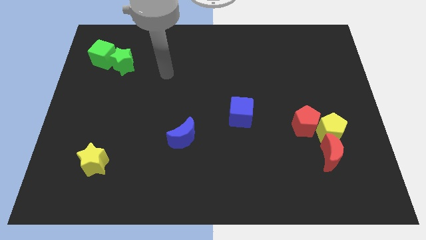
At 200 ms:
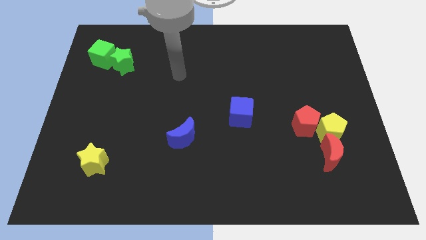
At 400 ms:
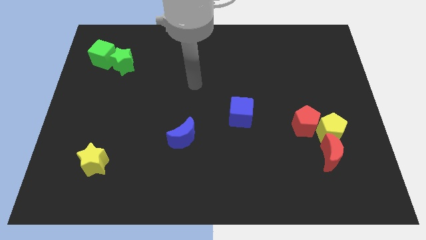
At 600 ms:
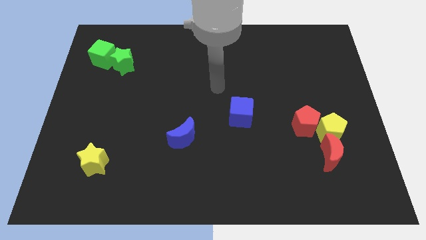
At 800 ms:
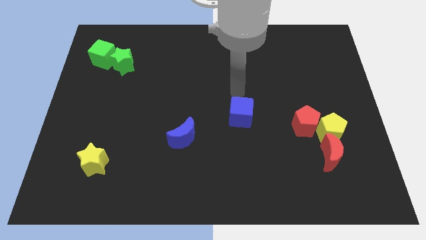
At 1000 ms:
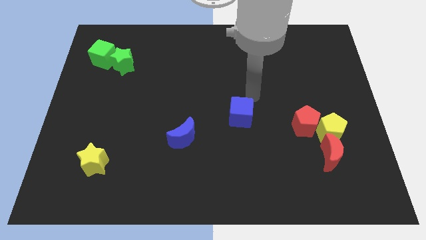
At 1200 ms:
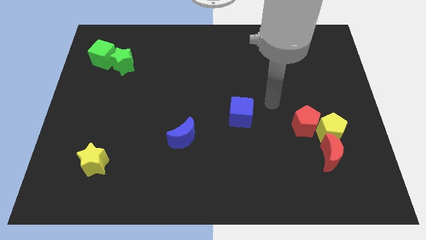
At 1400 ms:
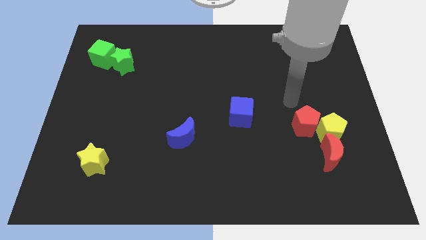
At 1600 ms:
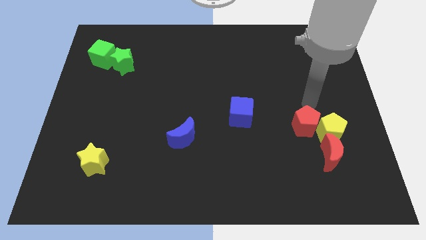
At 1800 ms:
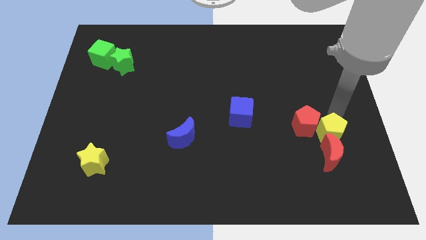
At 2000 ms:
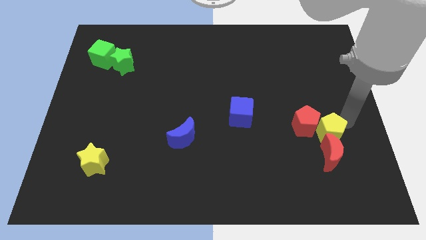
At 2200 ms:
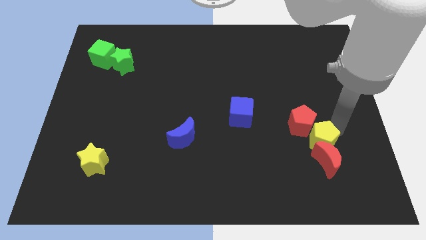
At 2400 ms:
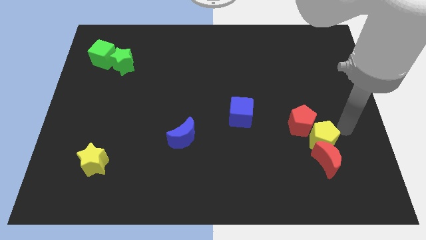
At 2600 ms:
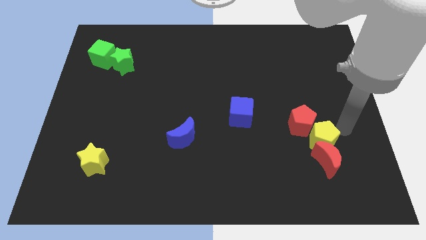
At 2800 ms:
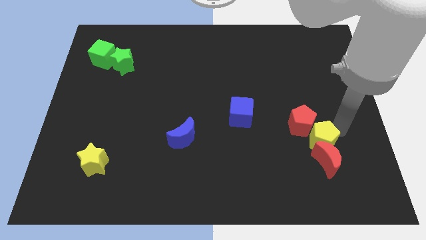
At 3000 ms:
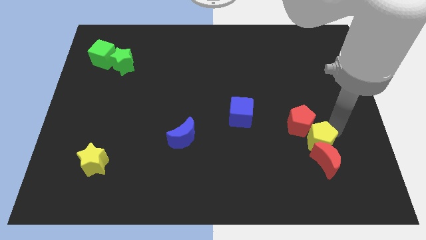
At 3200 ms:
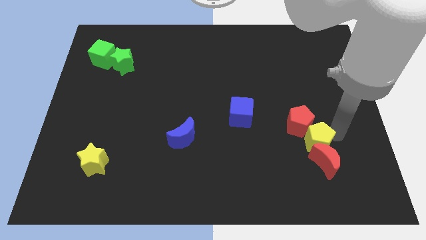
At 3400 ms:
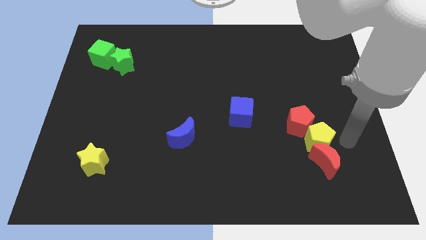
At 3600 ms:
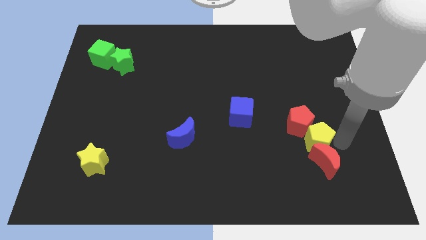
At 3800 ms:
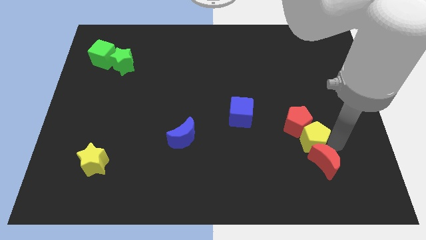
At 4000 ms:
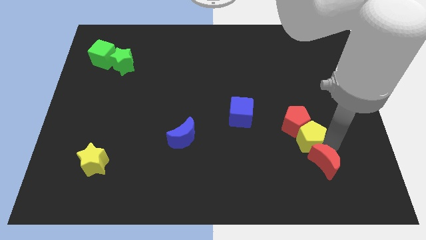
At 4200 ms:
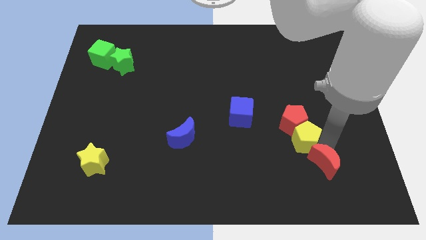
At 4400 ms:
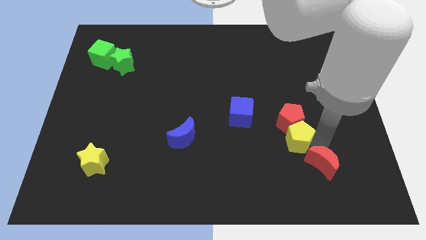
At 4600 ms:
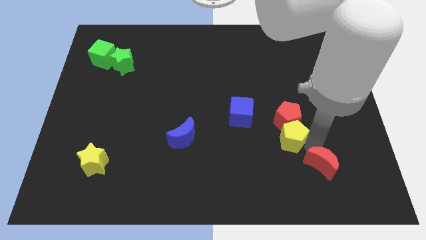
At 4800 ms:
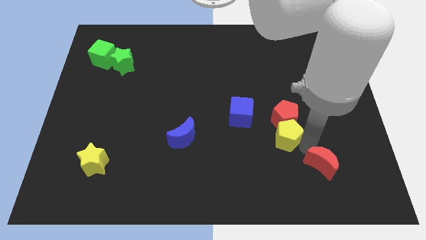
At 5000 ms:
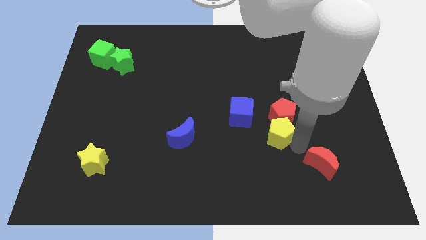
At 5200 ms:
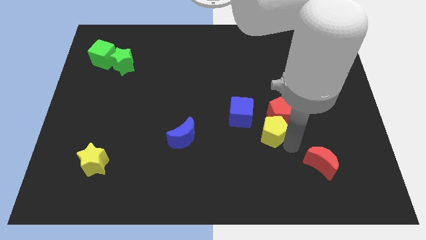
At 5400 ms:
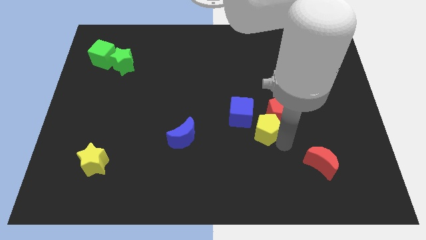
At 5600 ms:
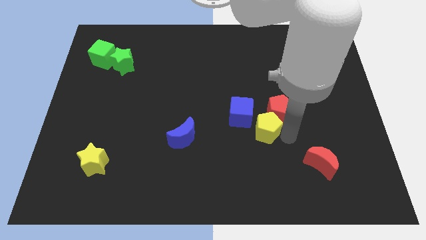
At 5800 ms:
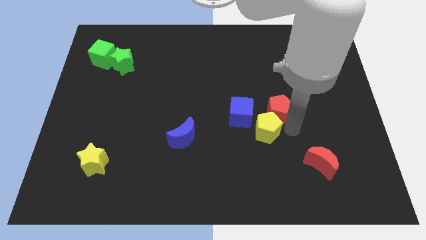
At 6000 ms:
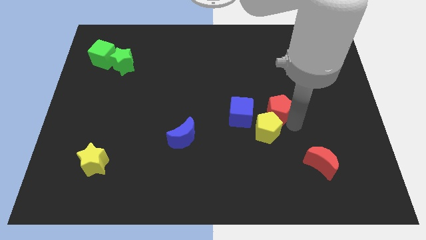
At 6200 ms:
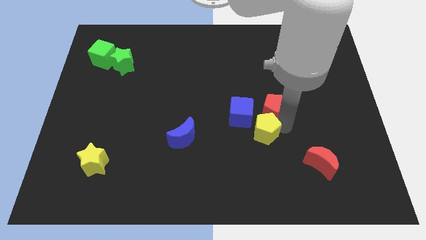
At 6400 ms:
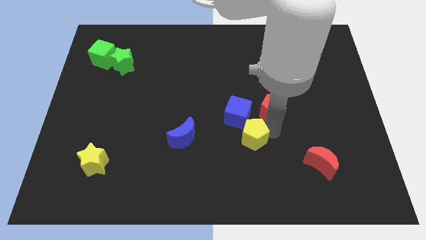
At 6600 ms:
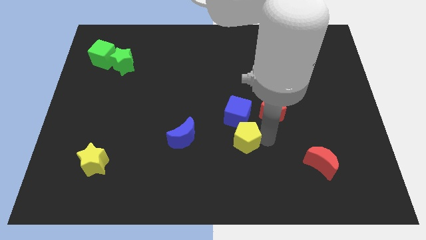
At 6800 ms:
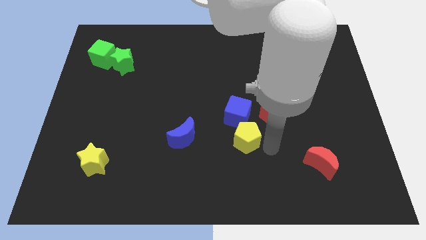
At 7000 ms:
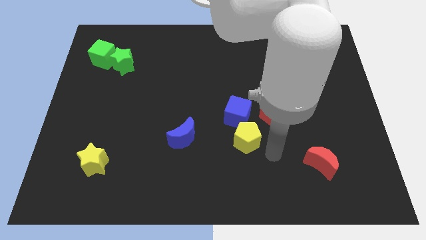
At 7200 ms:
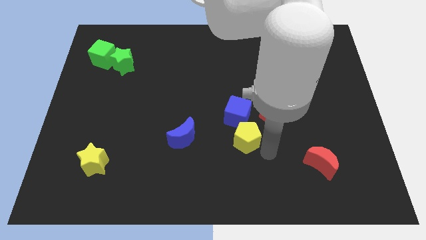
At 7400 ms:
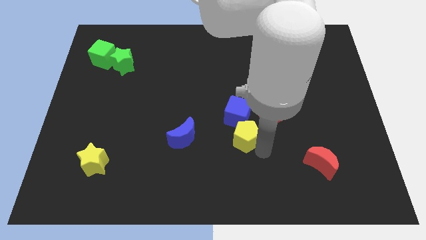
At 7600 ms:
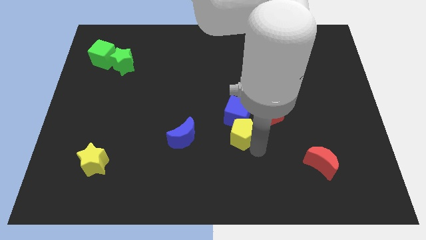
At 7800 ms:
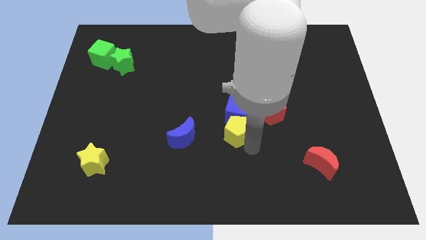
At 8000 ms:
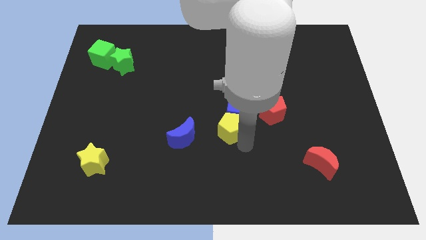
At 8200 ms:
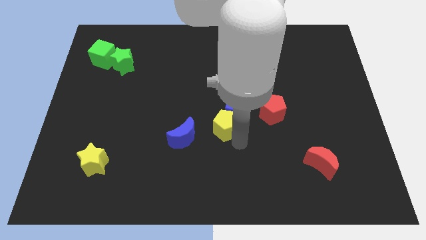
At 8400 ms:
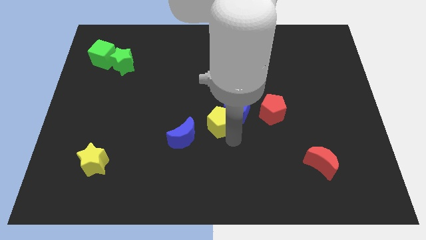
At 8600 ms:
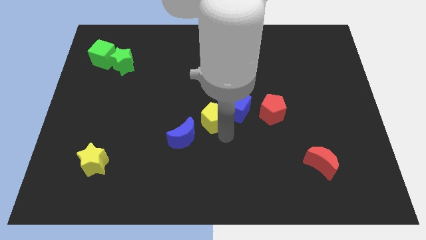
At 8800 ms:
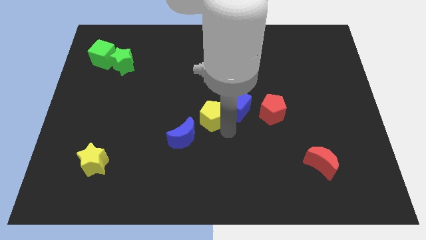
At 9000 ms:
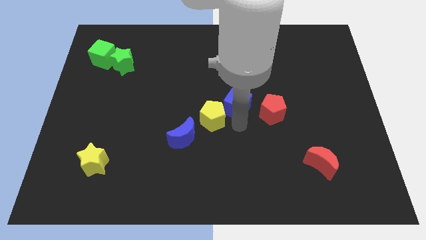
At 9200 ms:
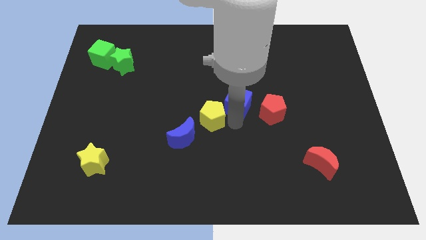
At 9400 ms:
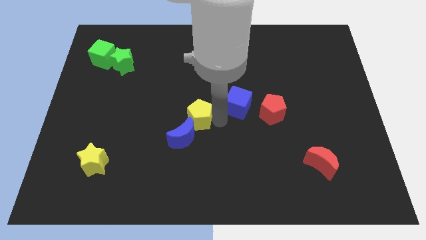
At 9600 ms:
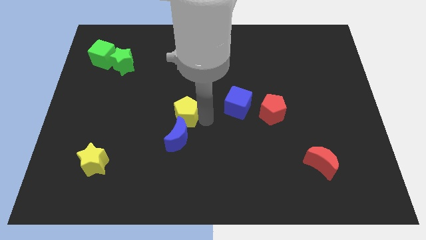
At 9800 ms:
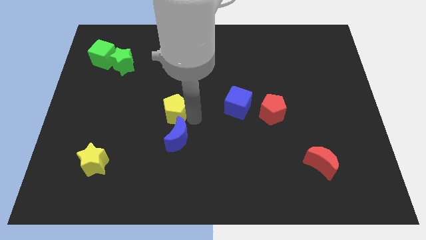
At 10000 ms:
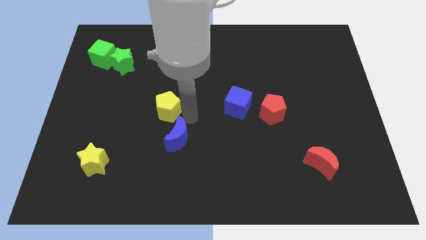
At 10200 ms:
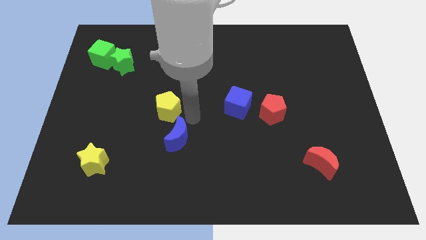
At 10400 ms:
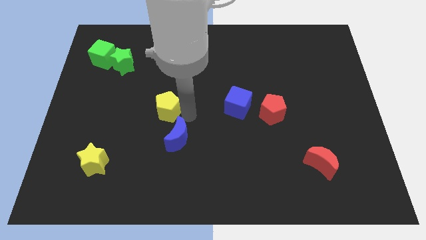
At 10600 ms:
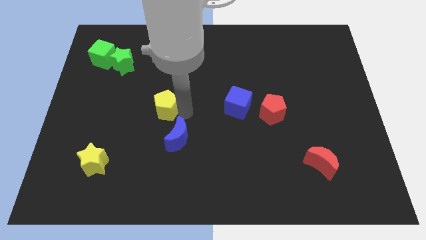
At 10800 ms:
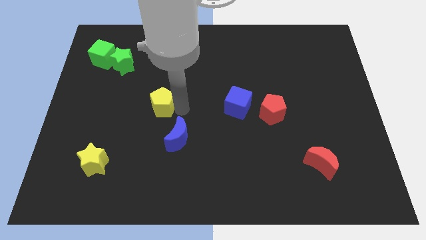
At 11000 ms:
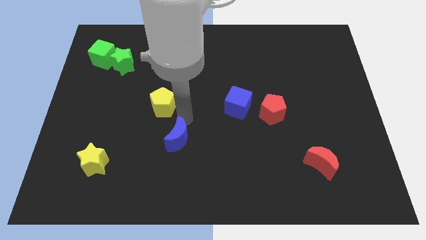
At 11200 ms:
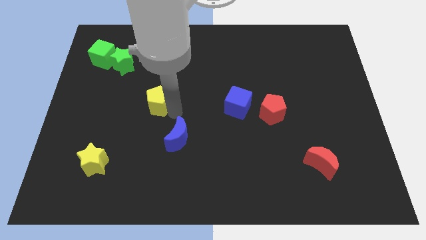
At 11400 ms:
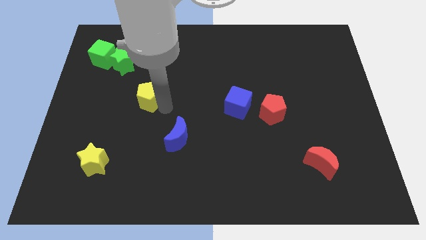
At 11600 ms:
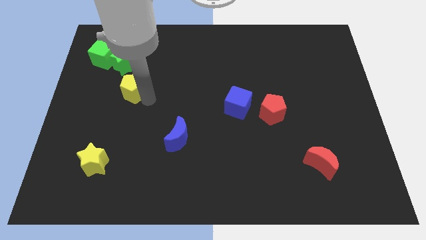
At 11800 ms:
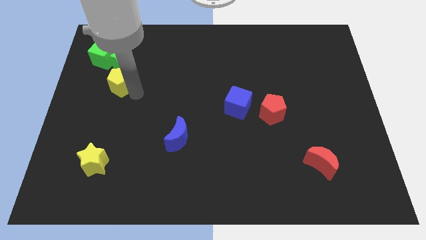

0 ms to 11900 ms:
slide the yellow pentagon to the bottom right side of the green cube

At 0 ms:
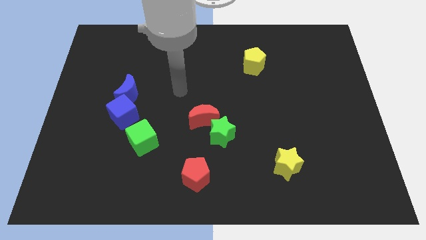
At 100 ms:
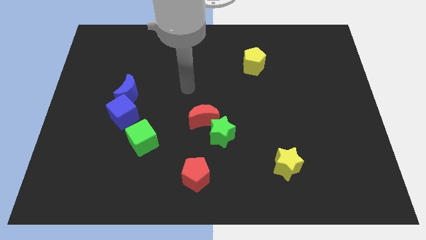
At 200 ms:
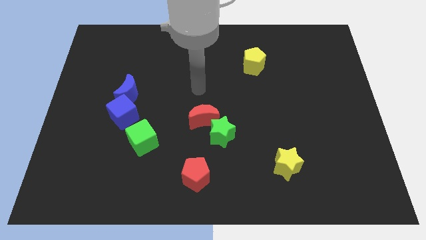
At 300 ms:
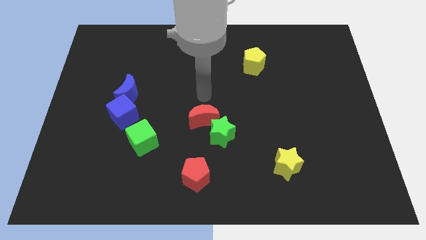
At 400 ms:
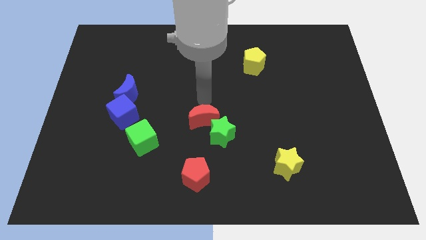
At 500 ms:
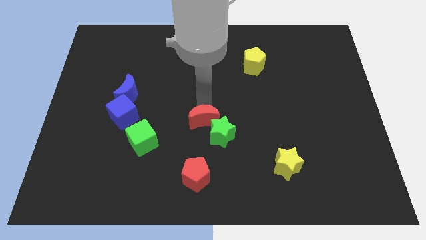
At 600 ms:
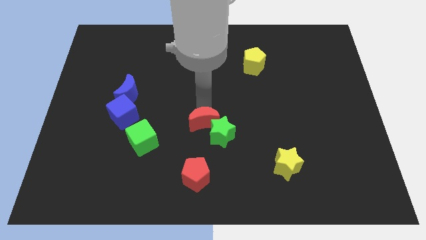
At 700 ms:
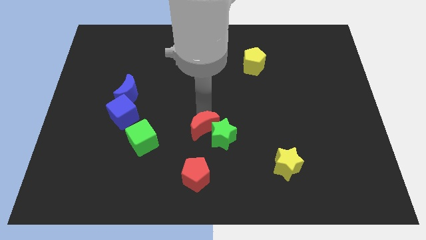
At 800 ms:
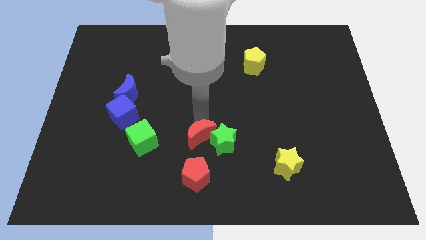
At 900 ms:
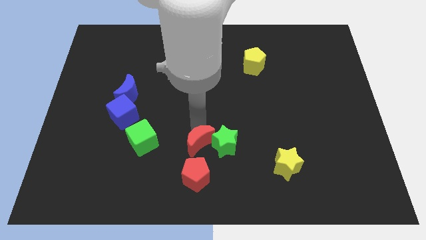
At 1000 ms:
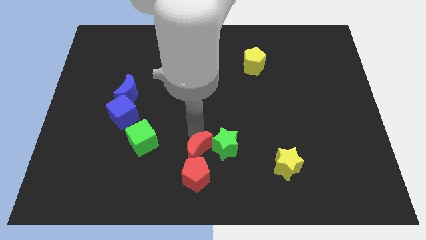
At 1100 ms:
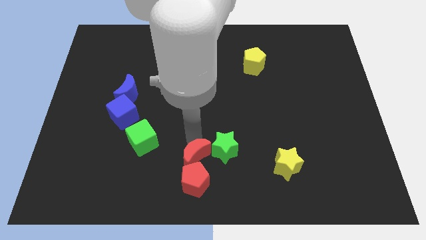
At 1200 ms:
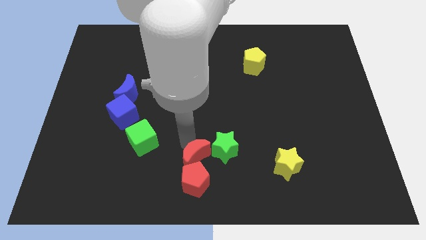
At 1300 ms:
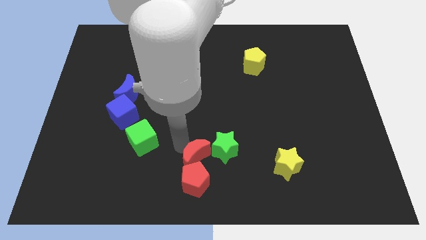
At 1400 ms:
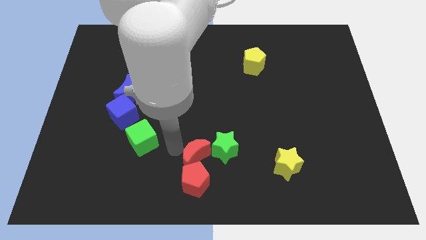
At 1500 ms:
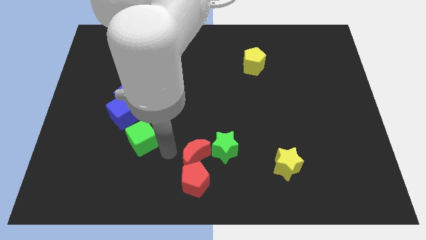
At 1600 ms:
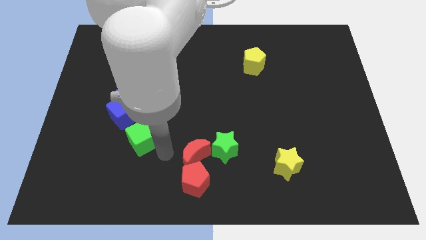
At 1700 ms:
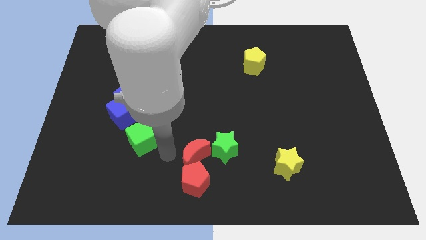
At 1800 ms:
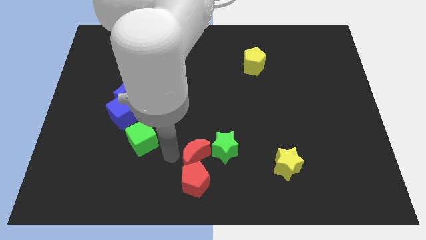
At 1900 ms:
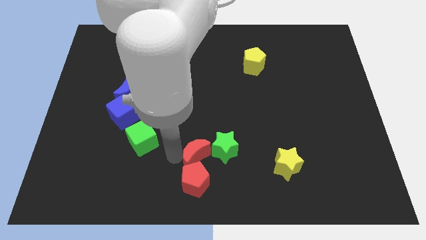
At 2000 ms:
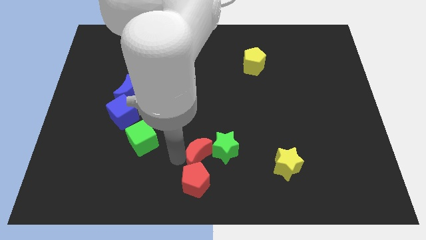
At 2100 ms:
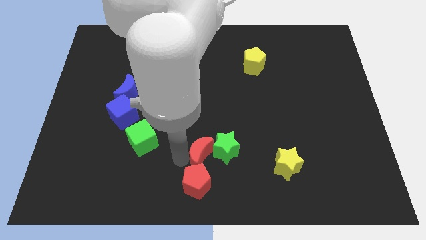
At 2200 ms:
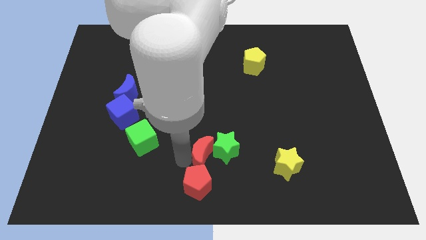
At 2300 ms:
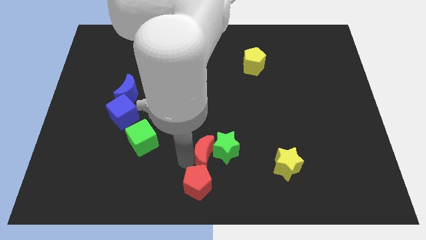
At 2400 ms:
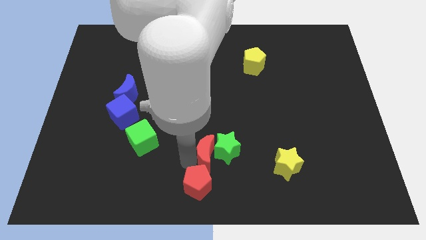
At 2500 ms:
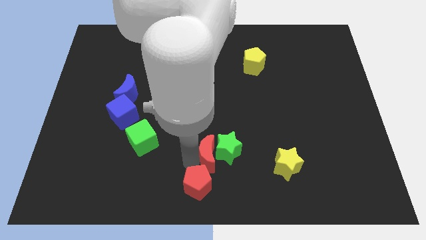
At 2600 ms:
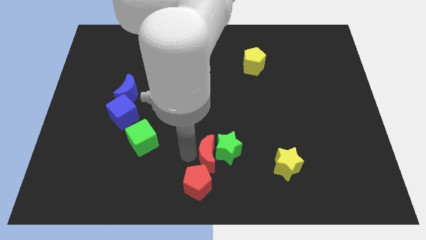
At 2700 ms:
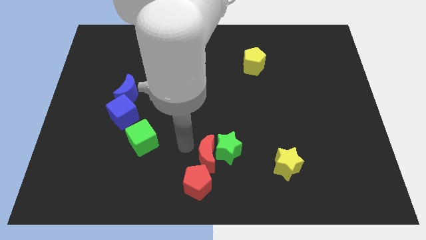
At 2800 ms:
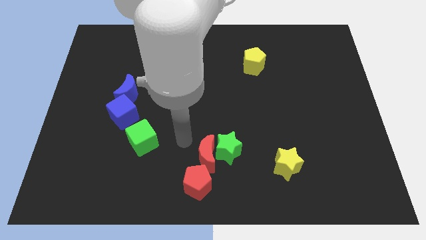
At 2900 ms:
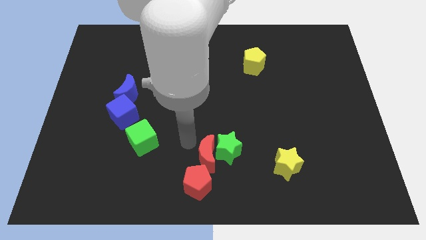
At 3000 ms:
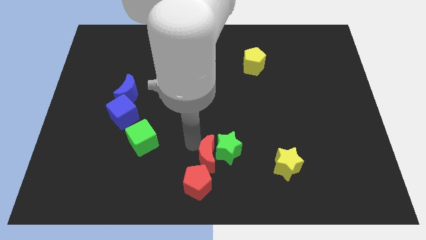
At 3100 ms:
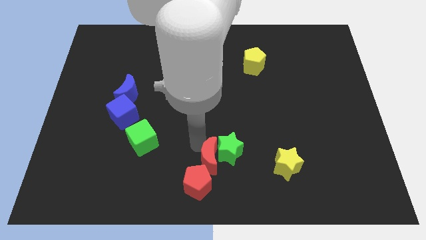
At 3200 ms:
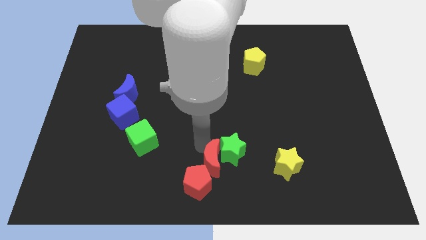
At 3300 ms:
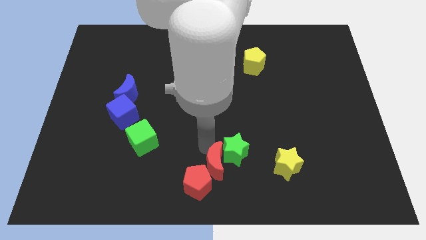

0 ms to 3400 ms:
slide the red moon just right of the red pentagon
